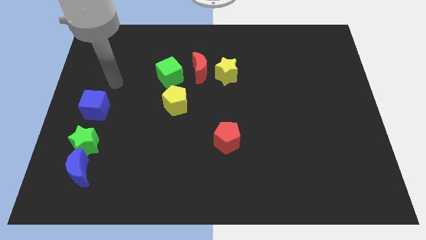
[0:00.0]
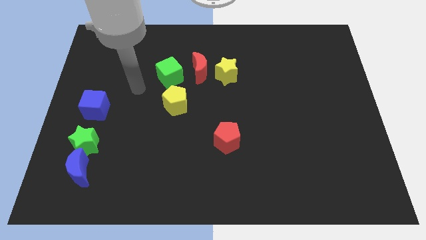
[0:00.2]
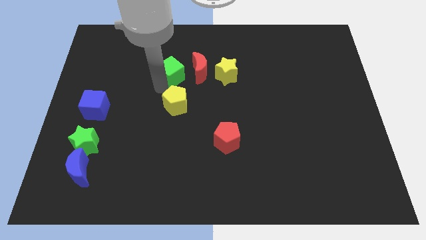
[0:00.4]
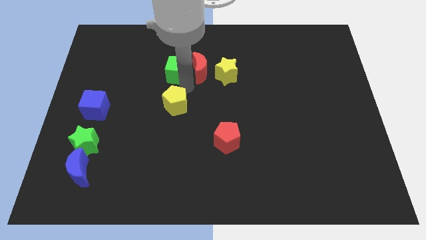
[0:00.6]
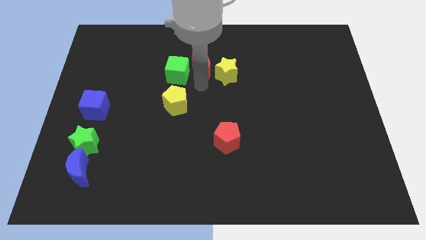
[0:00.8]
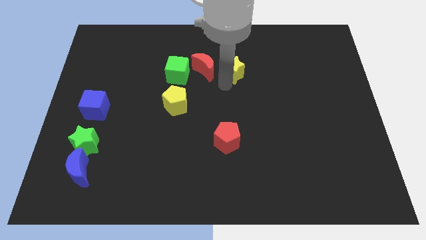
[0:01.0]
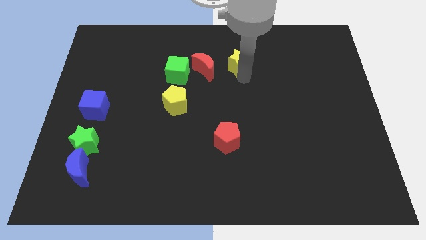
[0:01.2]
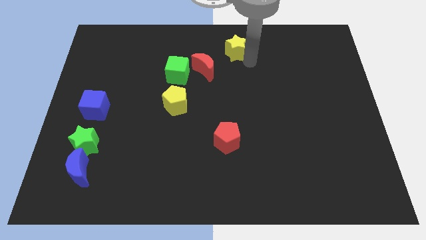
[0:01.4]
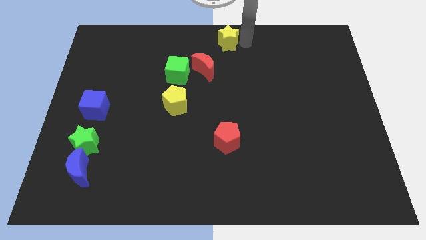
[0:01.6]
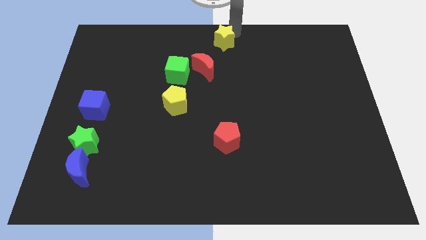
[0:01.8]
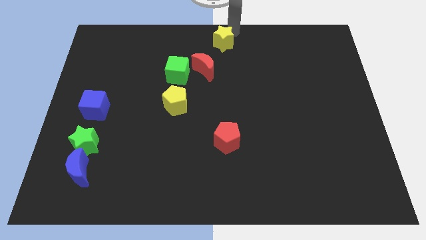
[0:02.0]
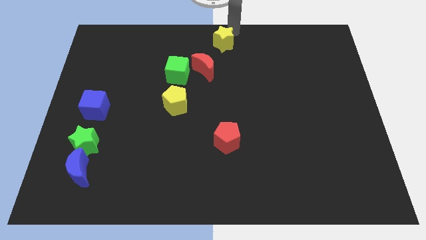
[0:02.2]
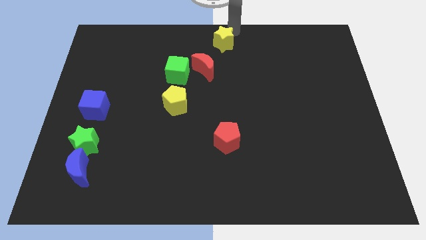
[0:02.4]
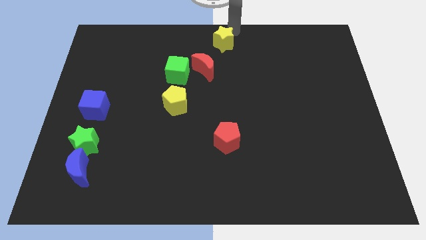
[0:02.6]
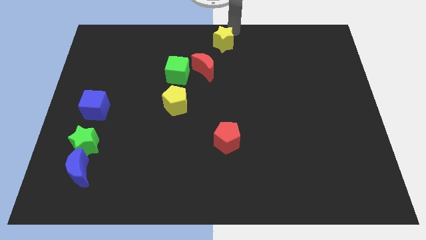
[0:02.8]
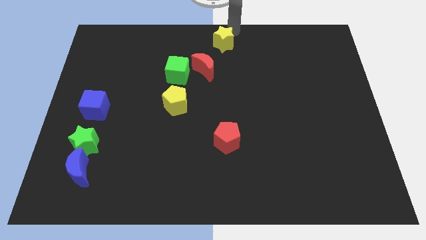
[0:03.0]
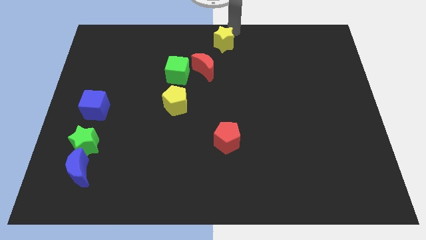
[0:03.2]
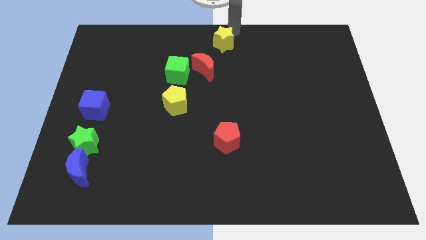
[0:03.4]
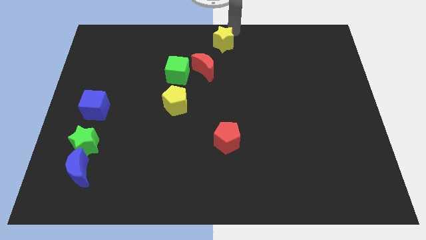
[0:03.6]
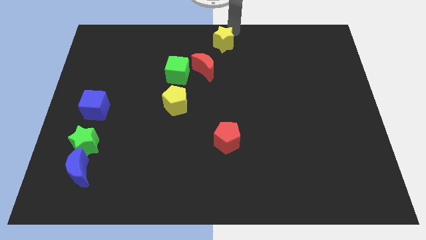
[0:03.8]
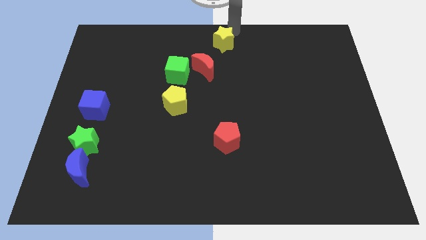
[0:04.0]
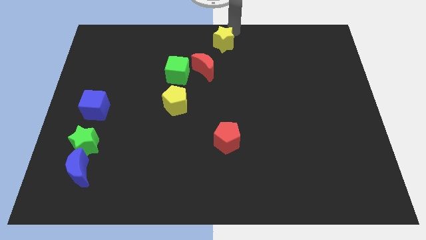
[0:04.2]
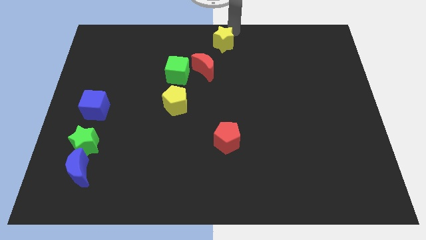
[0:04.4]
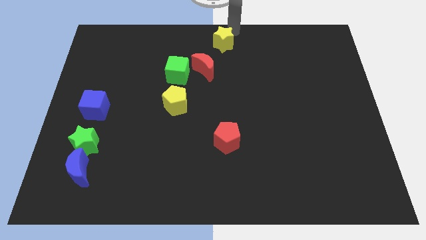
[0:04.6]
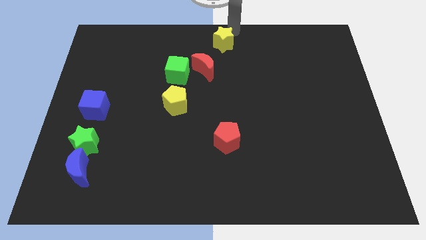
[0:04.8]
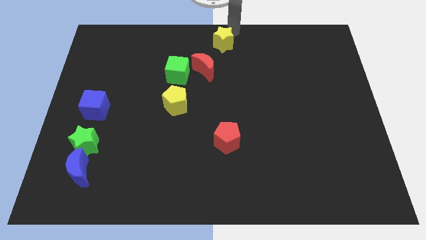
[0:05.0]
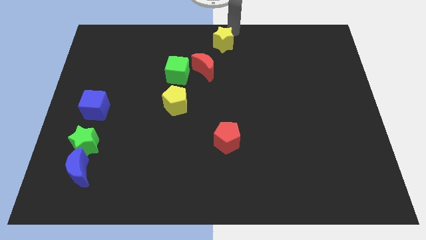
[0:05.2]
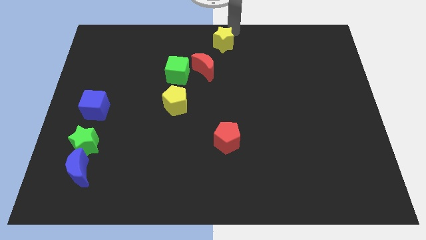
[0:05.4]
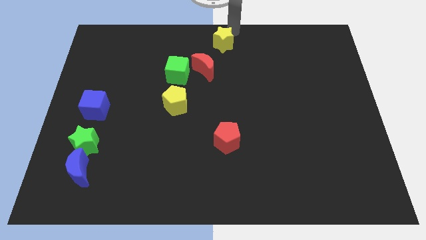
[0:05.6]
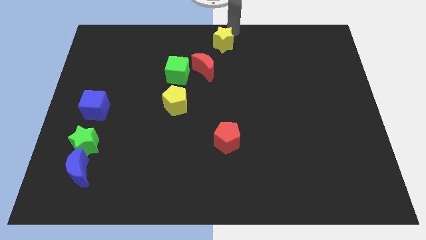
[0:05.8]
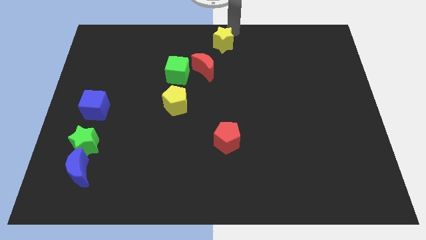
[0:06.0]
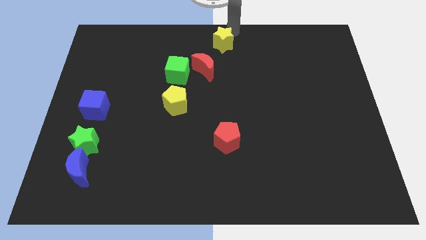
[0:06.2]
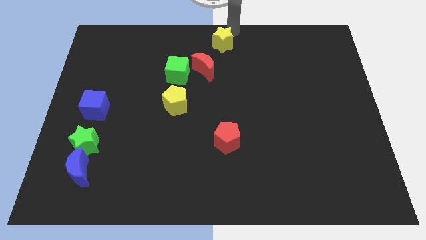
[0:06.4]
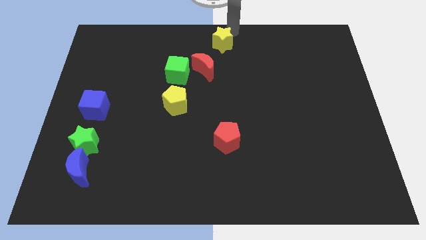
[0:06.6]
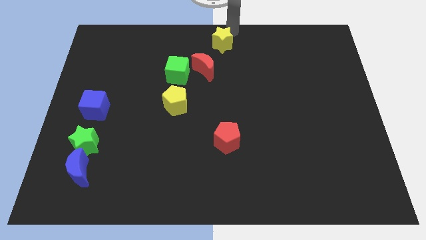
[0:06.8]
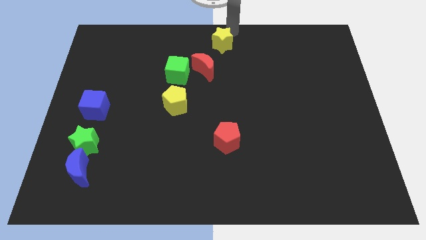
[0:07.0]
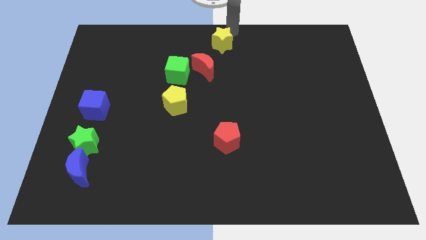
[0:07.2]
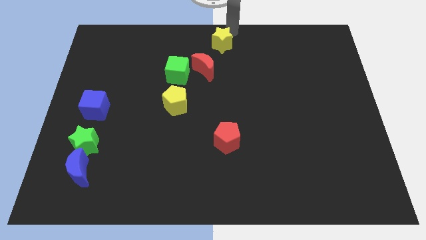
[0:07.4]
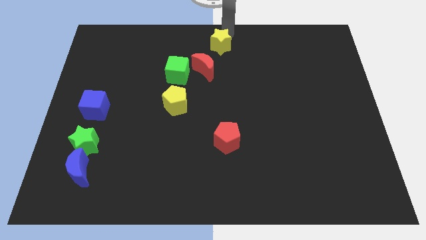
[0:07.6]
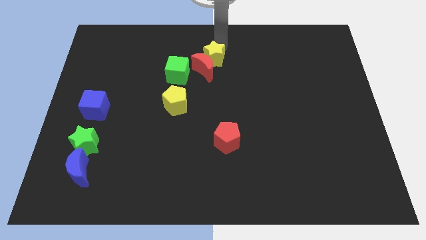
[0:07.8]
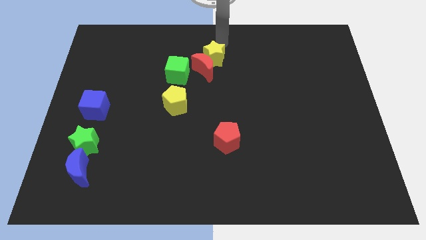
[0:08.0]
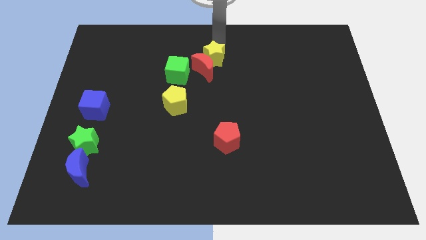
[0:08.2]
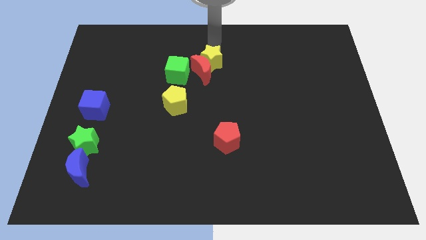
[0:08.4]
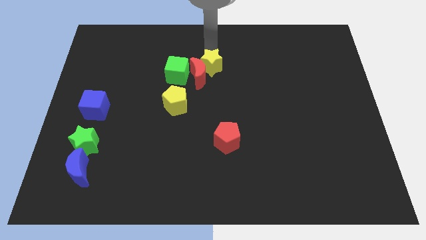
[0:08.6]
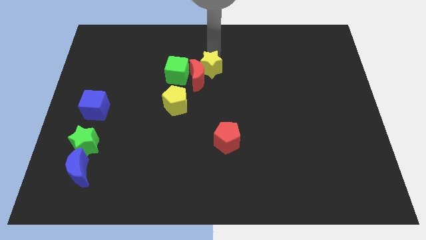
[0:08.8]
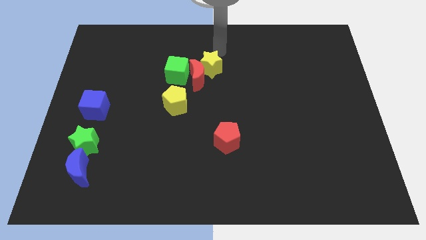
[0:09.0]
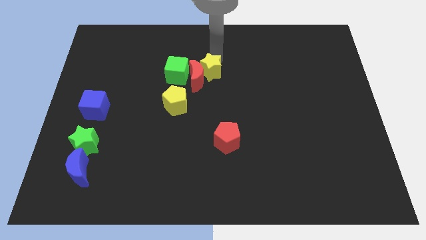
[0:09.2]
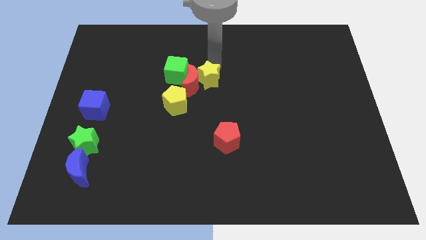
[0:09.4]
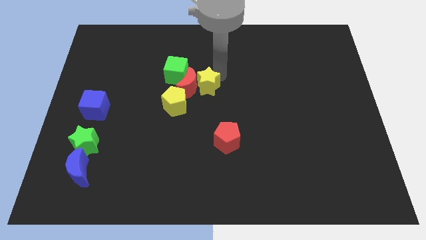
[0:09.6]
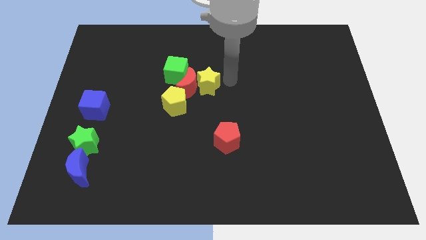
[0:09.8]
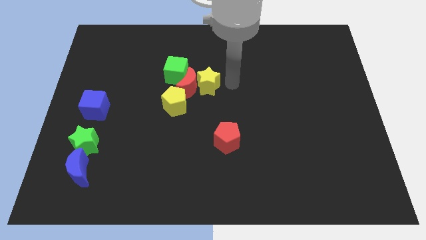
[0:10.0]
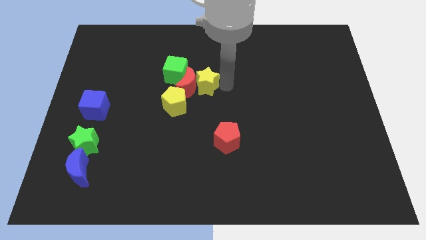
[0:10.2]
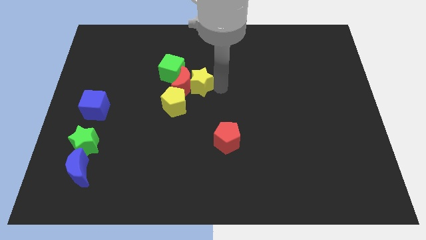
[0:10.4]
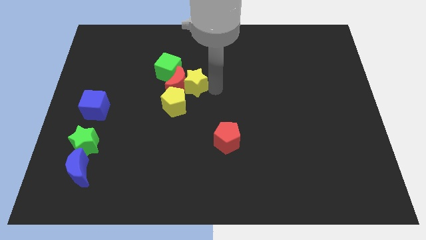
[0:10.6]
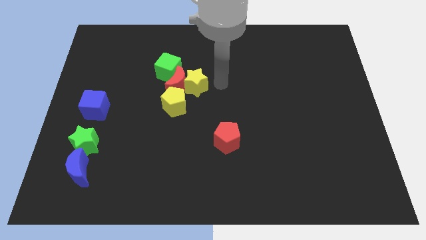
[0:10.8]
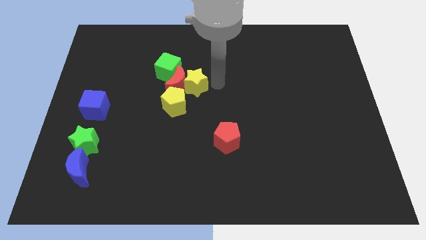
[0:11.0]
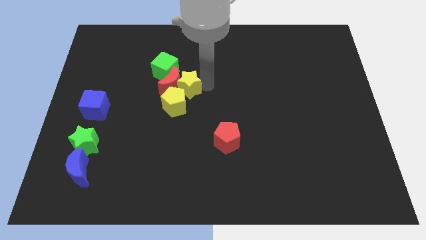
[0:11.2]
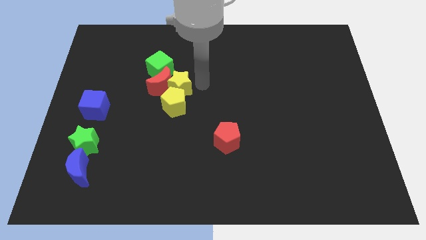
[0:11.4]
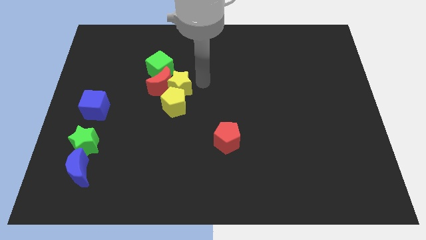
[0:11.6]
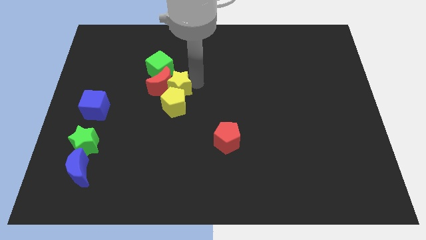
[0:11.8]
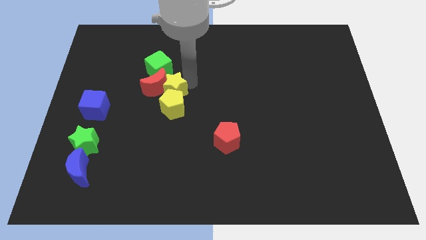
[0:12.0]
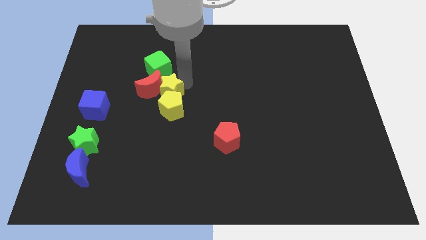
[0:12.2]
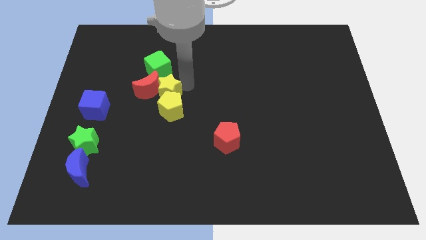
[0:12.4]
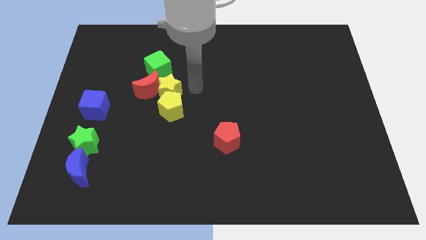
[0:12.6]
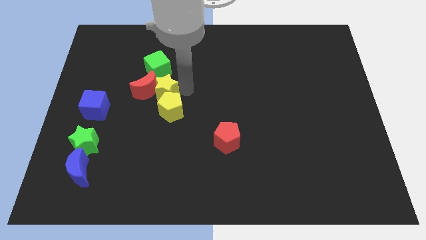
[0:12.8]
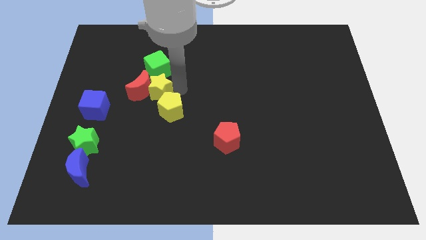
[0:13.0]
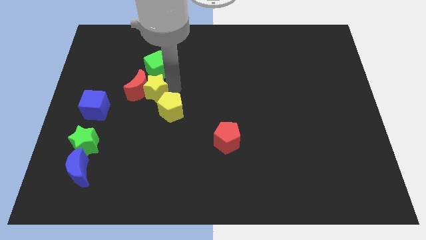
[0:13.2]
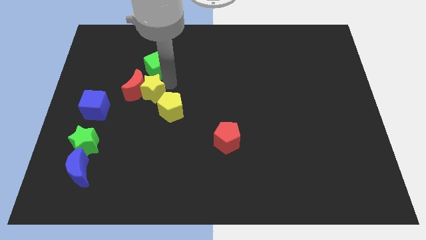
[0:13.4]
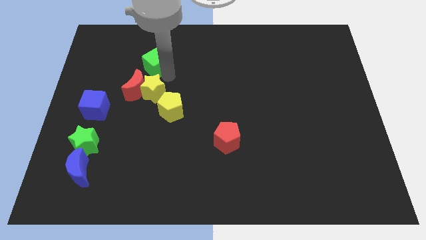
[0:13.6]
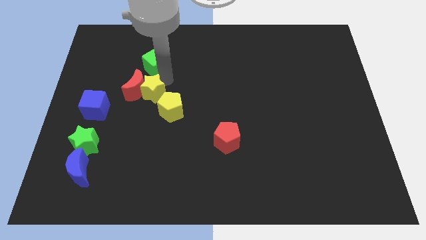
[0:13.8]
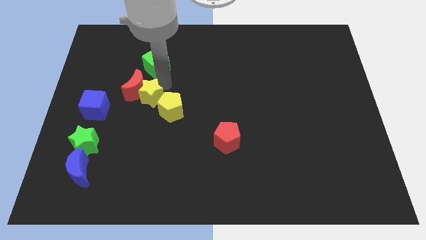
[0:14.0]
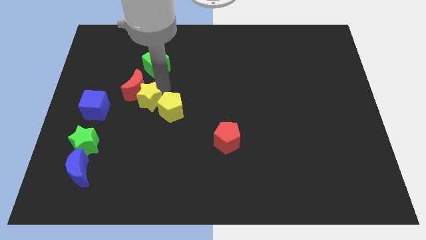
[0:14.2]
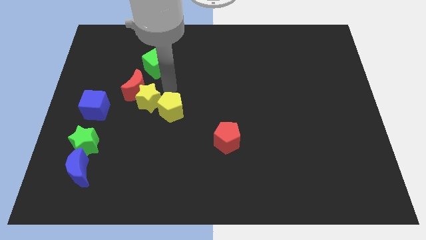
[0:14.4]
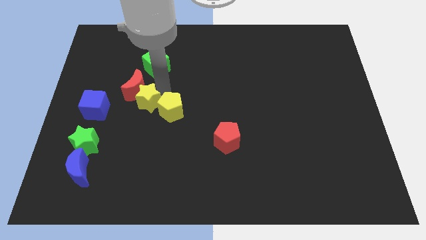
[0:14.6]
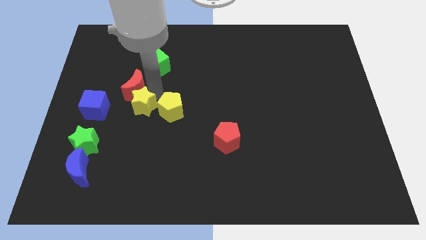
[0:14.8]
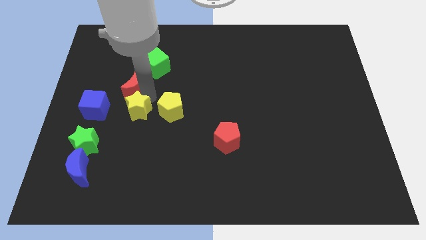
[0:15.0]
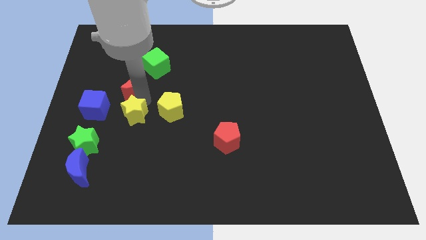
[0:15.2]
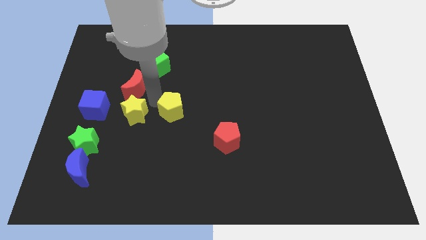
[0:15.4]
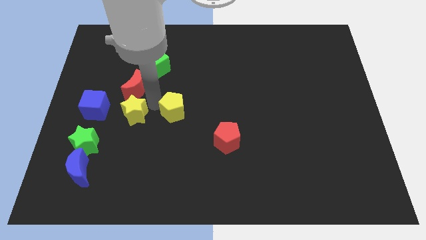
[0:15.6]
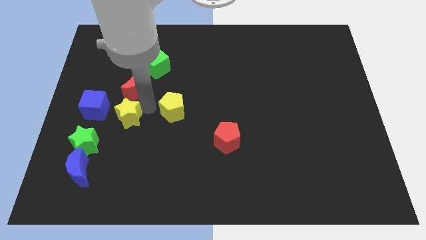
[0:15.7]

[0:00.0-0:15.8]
slide the yellow star to the bottom right side of the blue cube

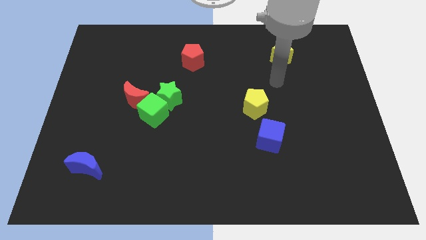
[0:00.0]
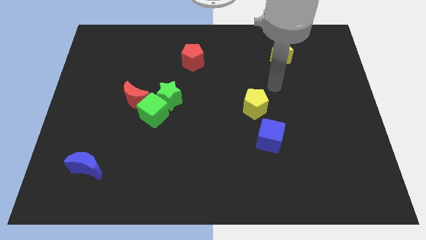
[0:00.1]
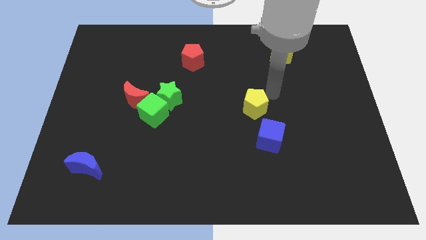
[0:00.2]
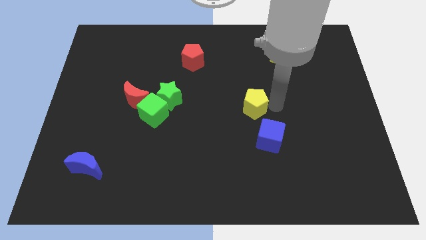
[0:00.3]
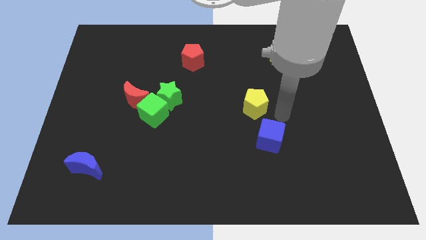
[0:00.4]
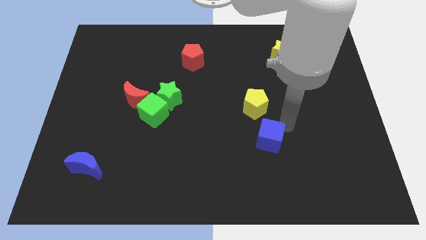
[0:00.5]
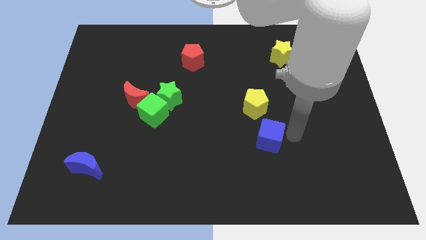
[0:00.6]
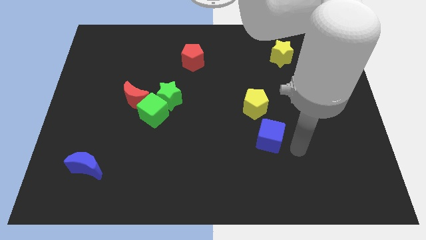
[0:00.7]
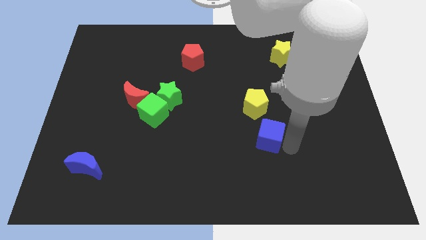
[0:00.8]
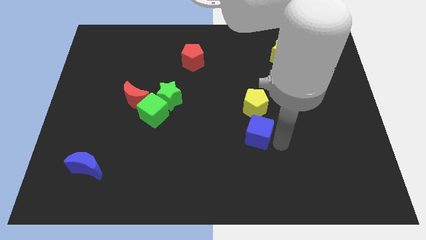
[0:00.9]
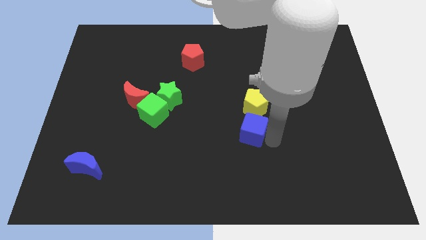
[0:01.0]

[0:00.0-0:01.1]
move the blue cube diagonally down and to the left of the yellow pentagon
